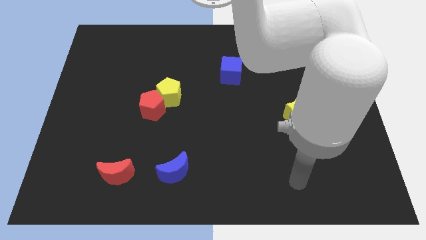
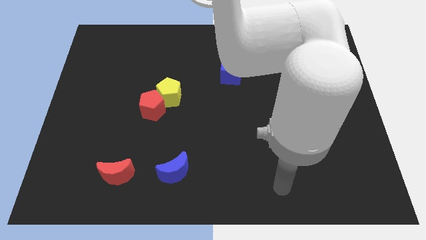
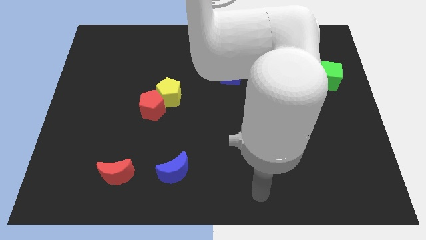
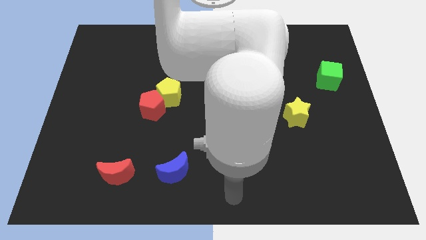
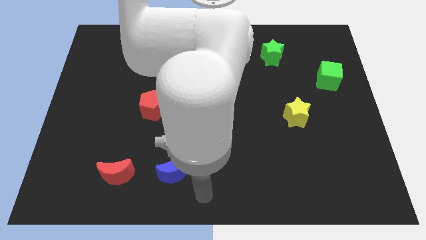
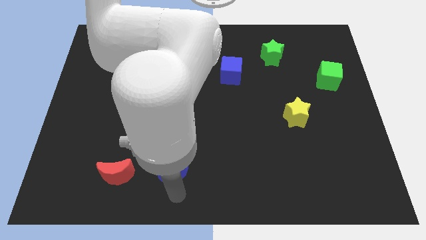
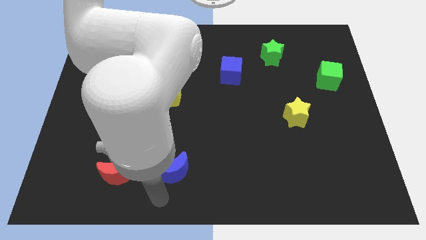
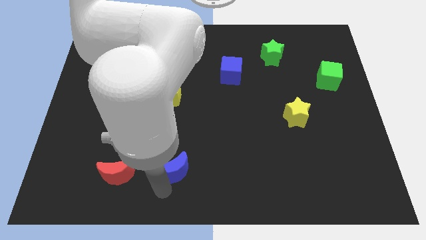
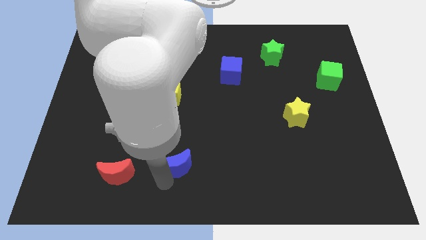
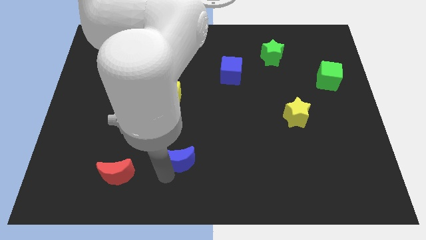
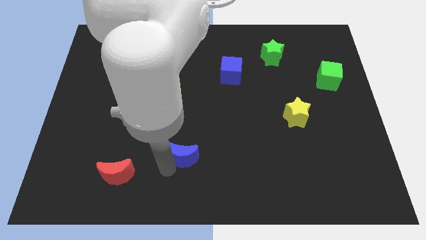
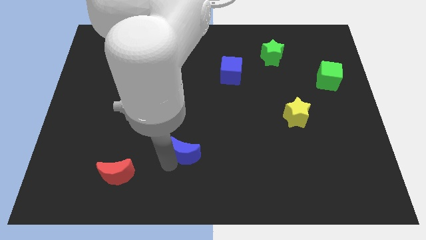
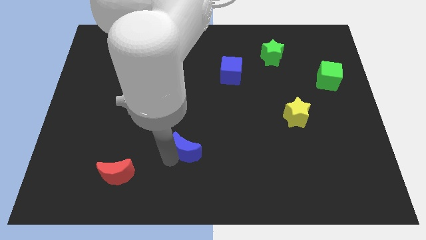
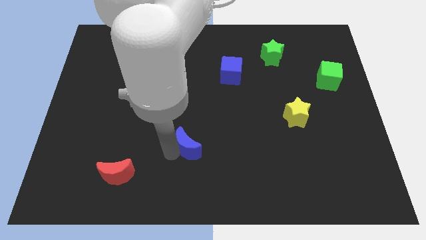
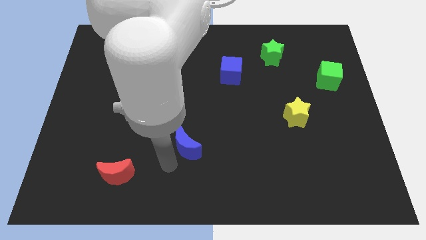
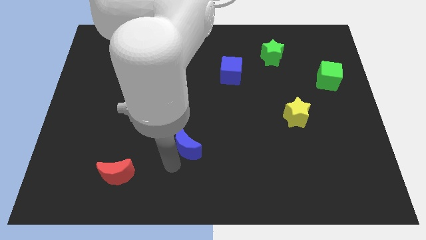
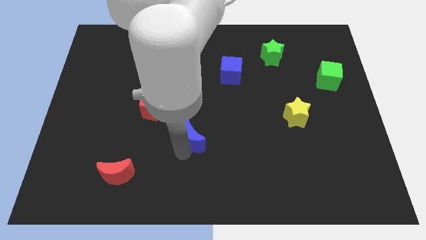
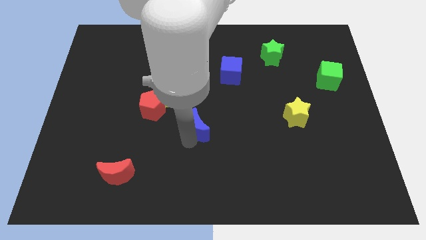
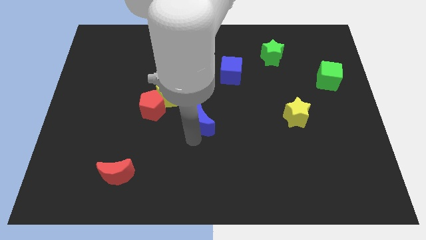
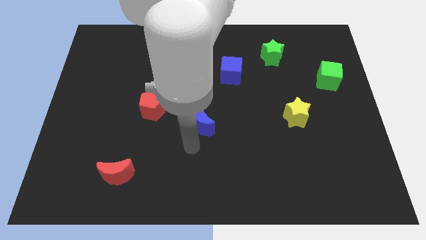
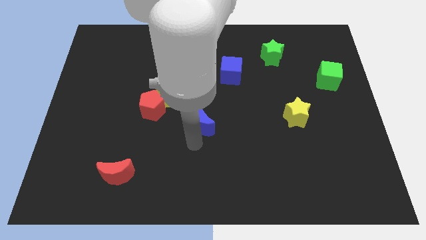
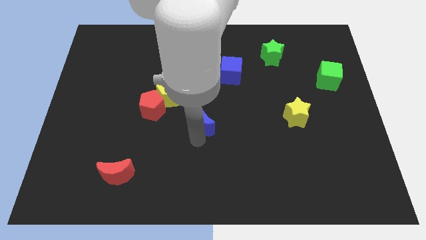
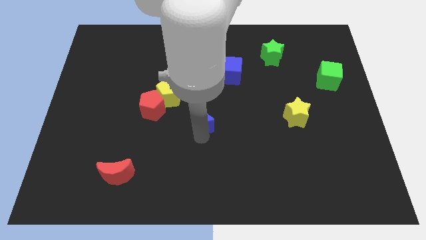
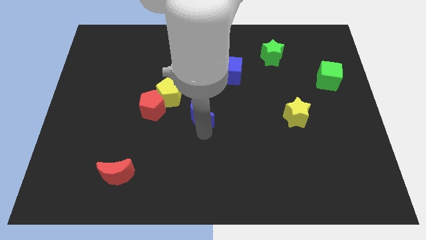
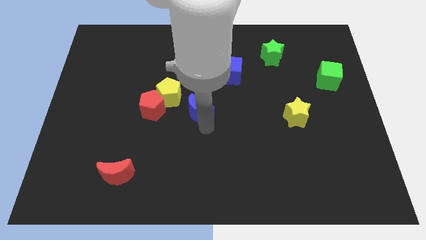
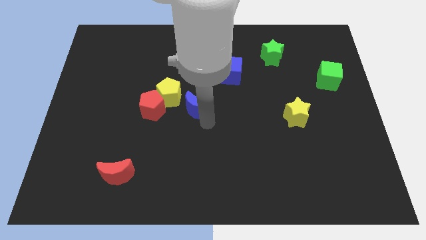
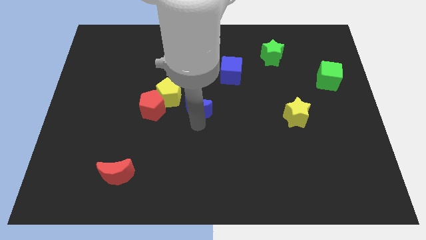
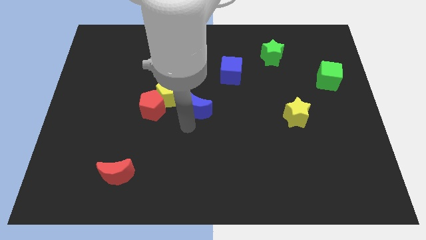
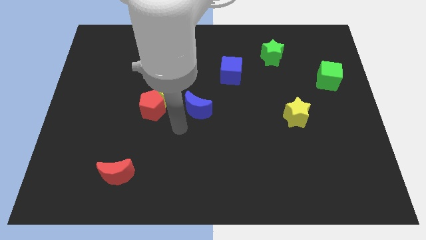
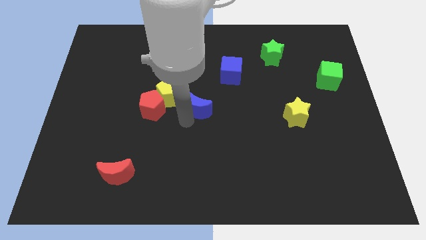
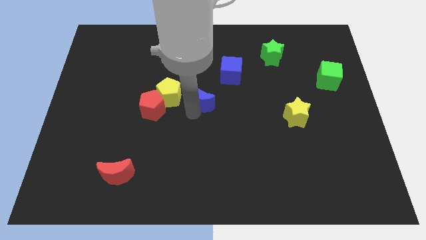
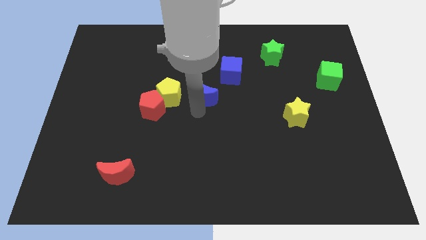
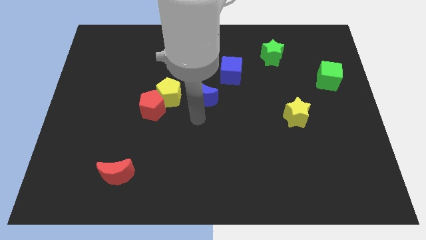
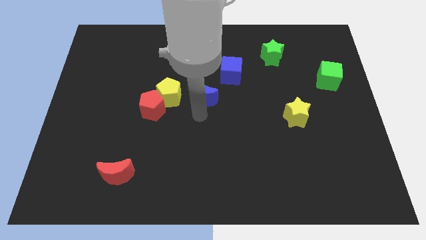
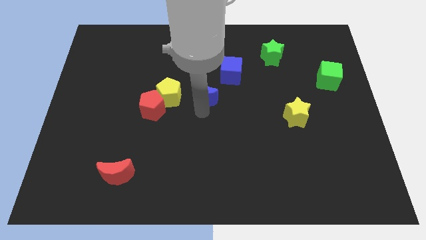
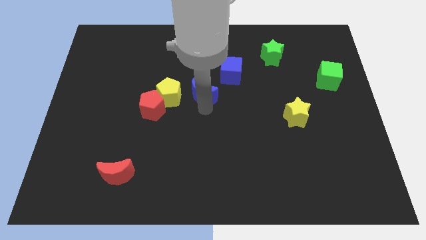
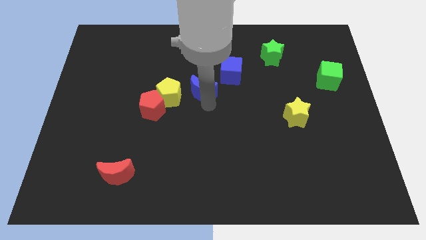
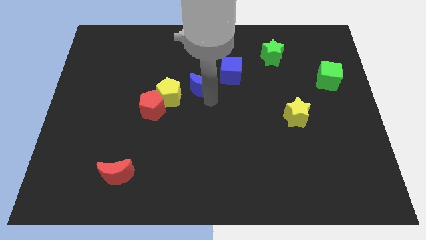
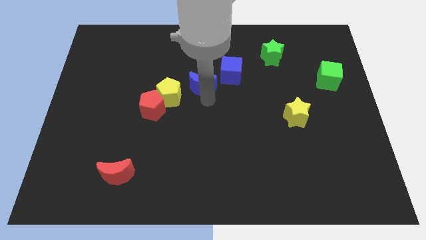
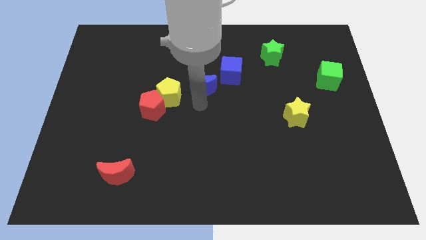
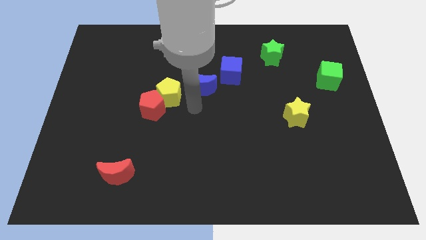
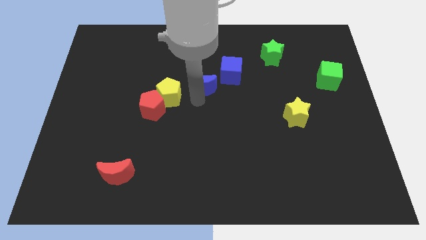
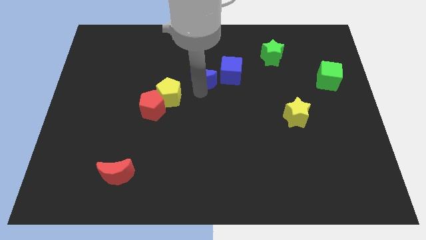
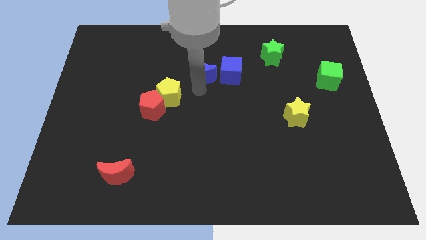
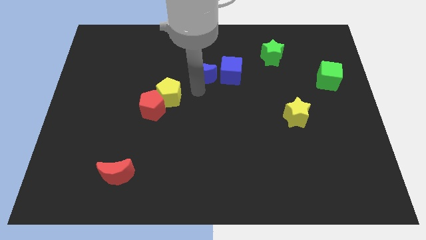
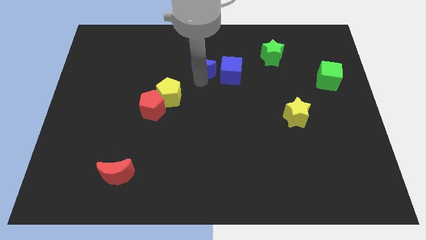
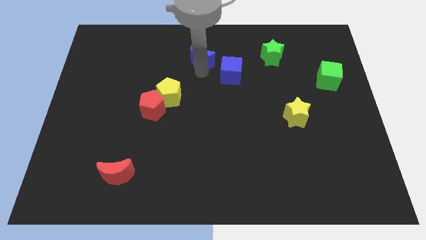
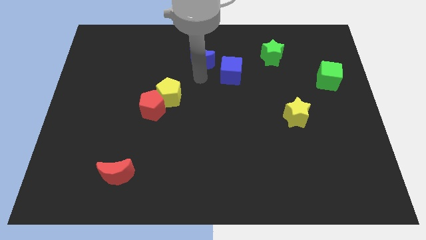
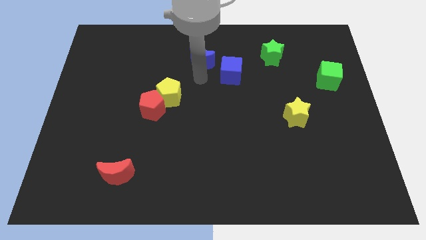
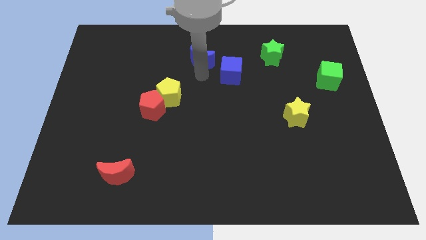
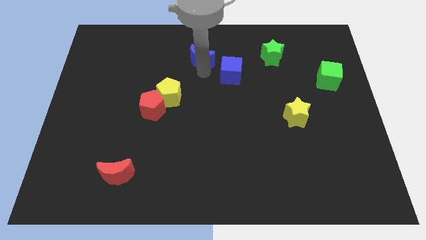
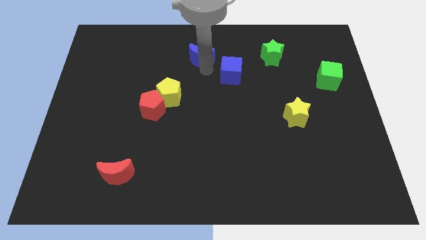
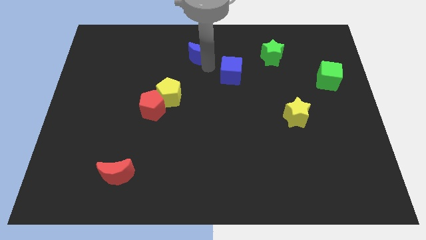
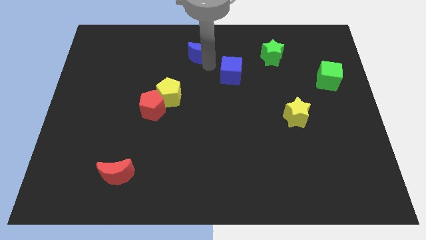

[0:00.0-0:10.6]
put the blue moon to the towards your base

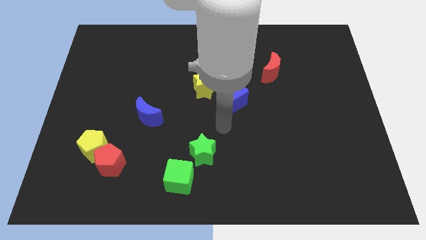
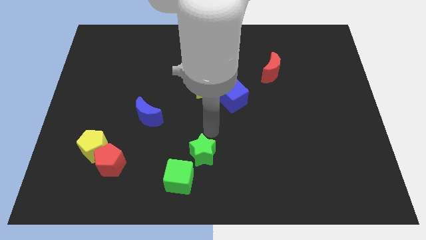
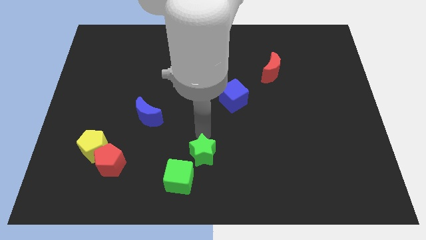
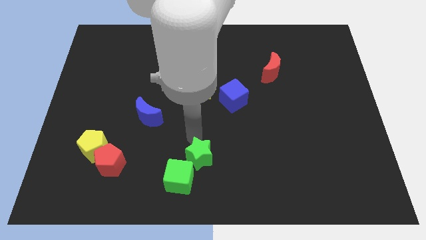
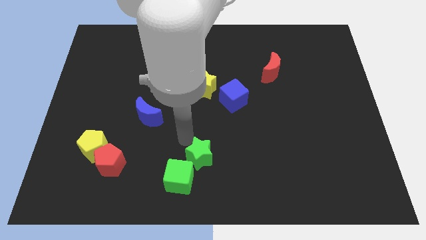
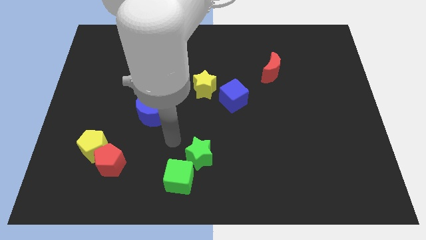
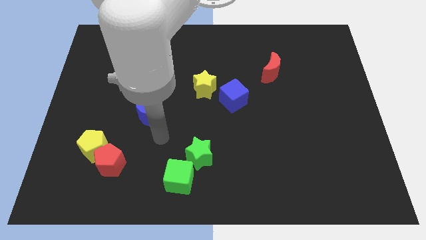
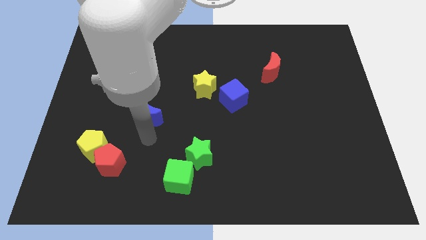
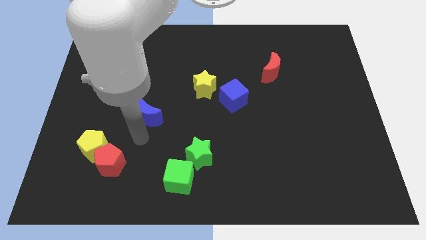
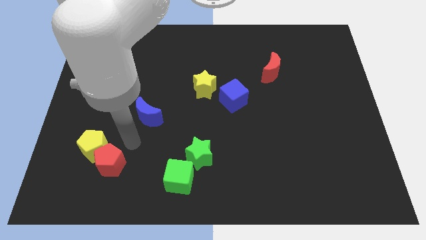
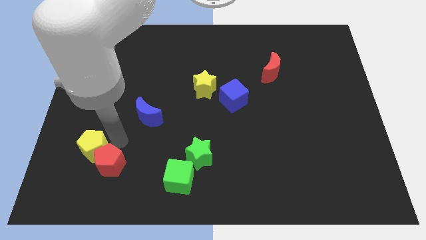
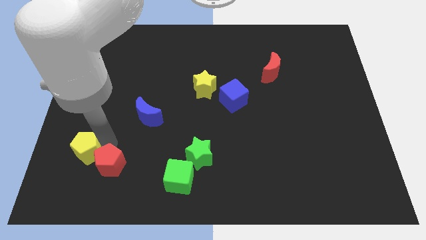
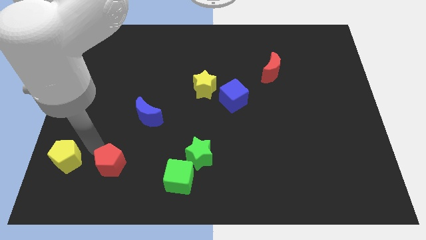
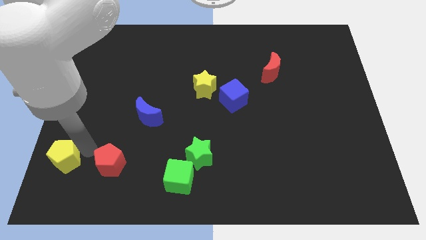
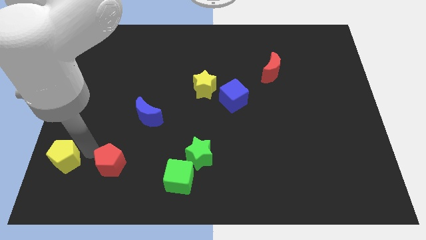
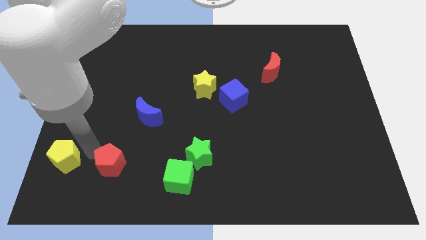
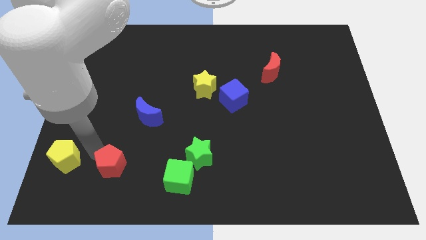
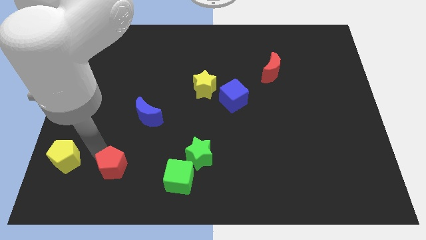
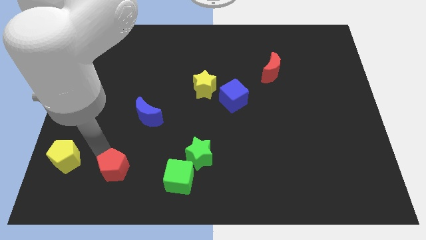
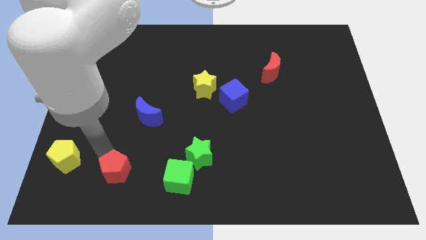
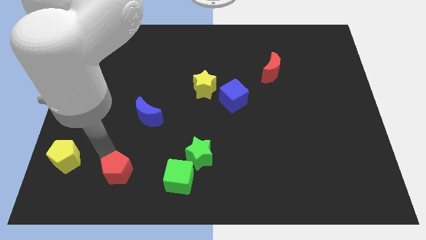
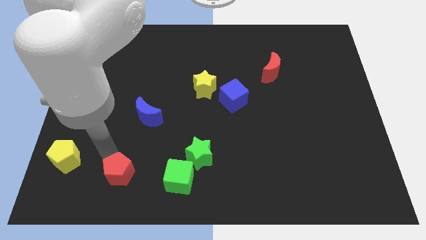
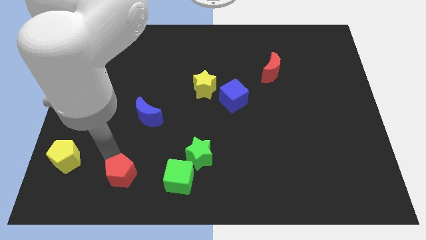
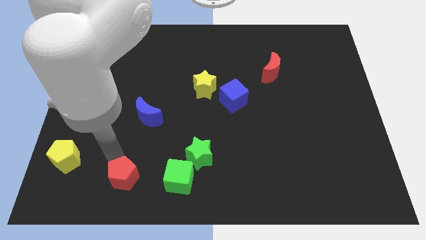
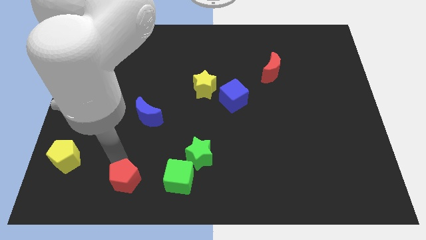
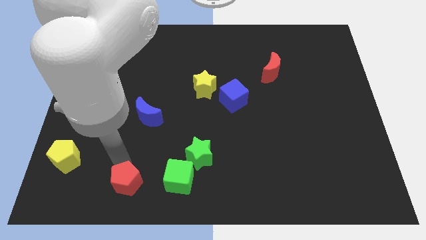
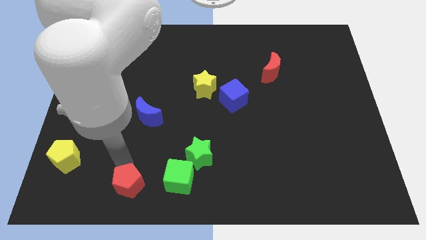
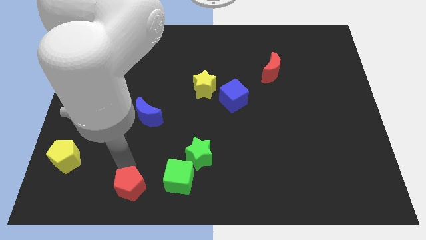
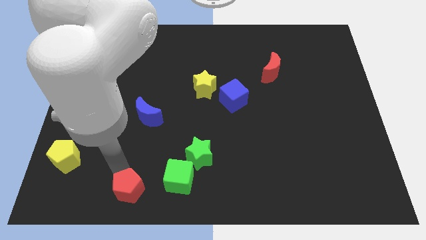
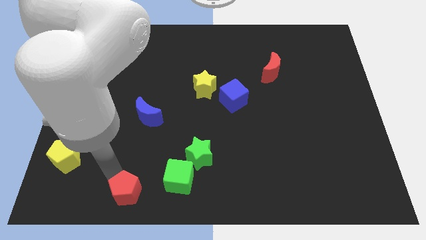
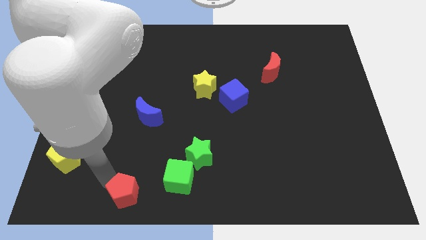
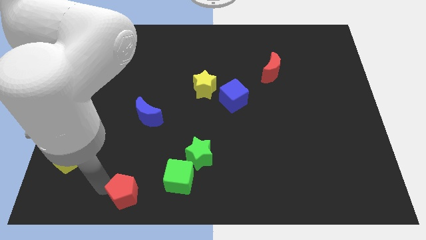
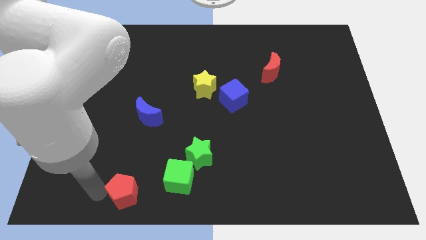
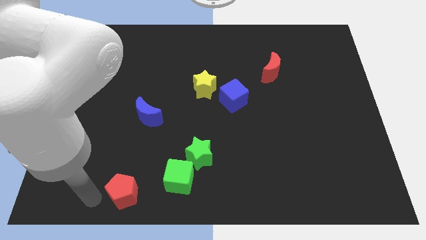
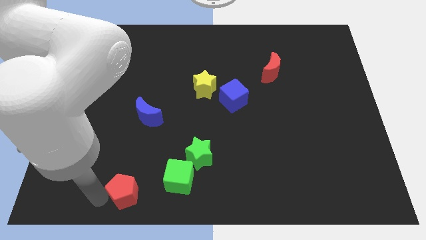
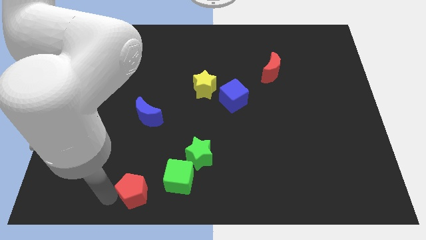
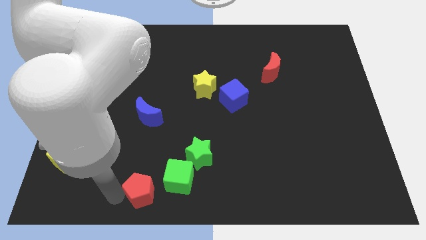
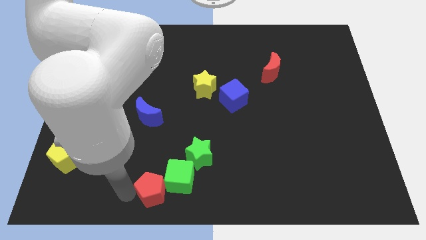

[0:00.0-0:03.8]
slide the red pentagon to the bottom
